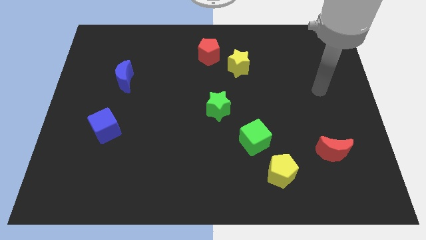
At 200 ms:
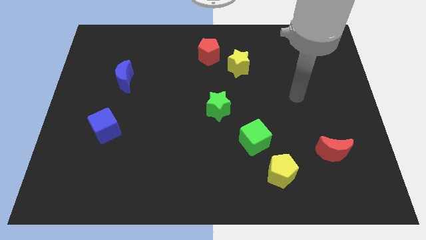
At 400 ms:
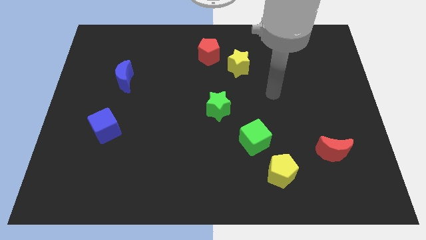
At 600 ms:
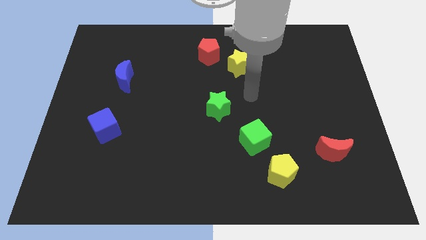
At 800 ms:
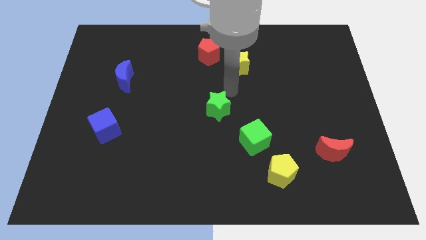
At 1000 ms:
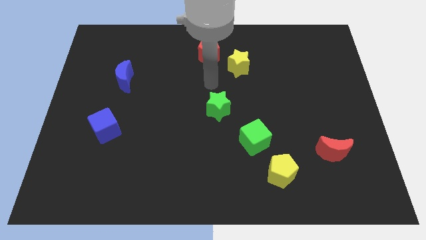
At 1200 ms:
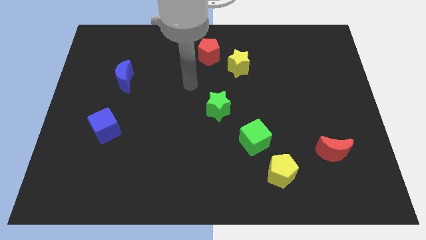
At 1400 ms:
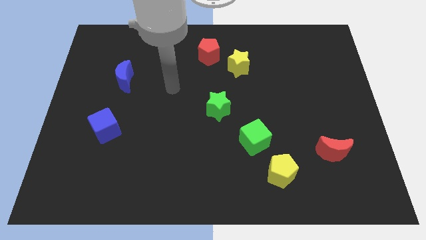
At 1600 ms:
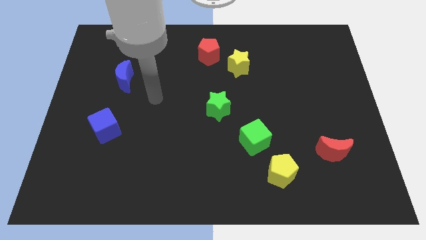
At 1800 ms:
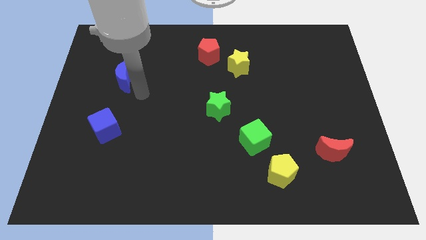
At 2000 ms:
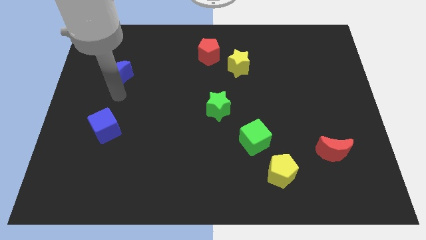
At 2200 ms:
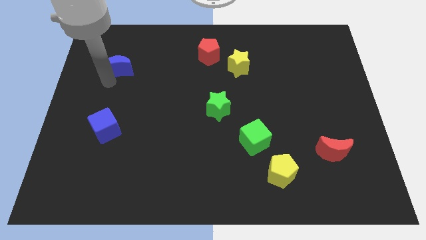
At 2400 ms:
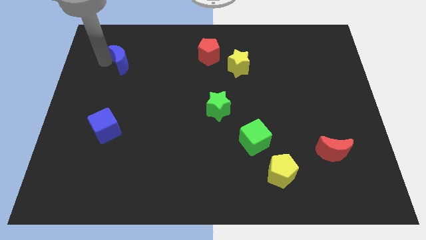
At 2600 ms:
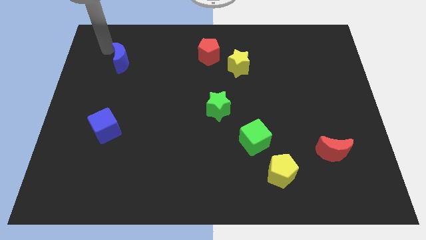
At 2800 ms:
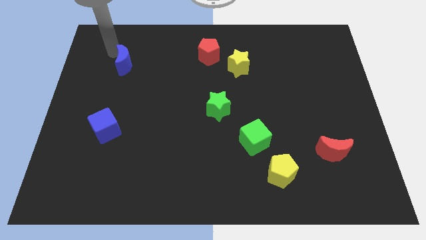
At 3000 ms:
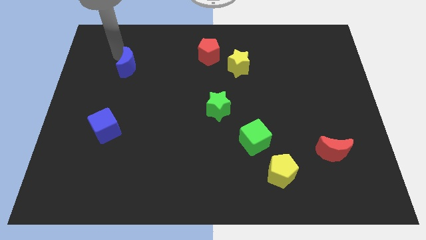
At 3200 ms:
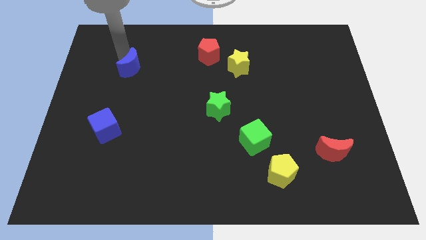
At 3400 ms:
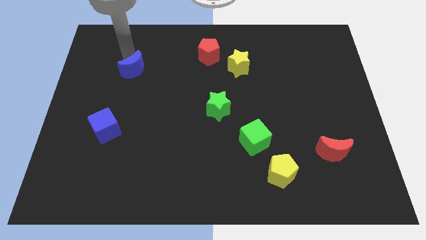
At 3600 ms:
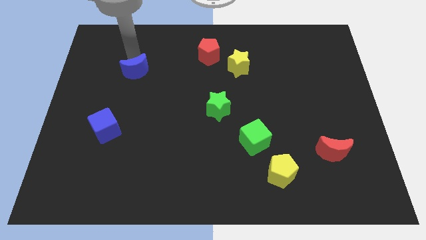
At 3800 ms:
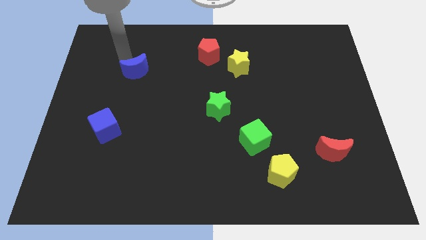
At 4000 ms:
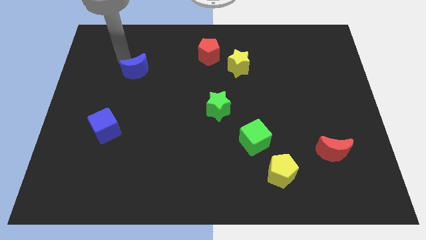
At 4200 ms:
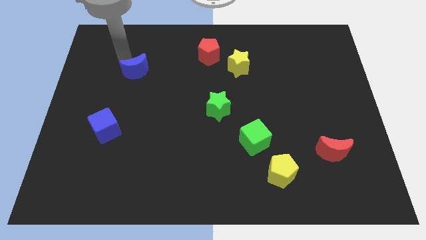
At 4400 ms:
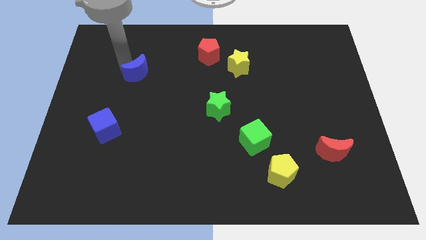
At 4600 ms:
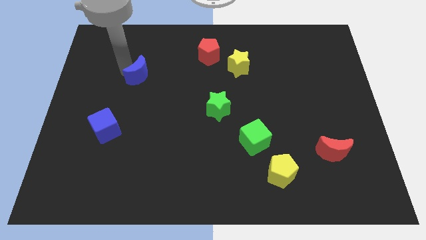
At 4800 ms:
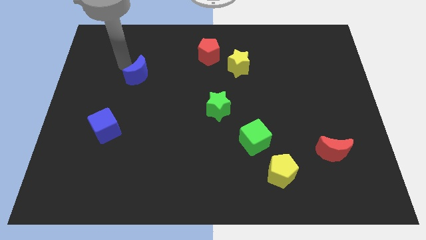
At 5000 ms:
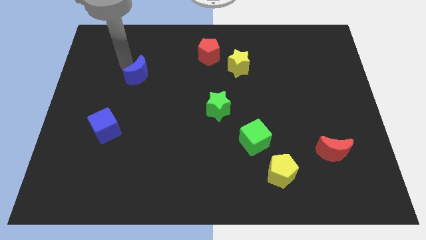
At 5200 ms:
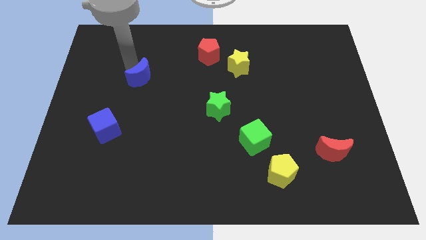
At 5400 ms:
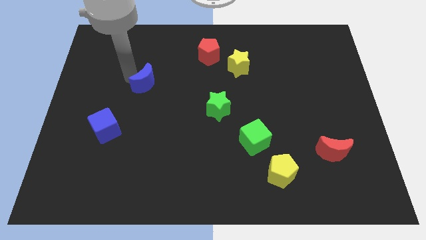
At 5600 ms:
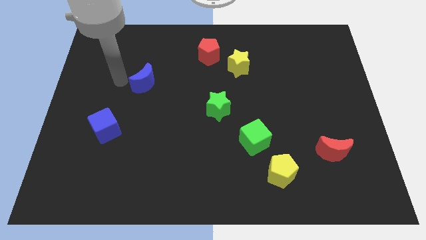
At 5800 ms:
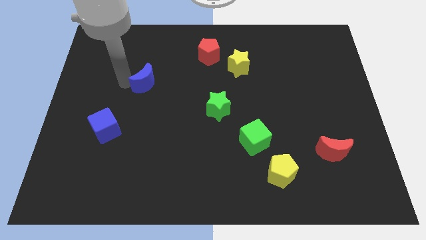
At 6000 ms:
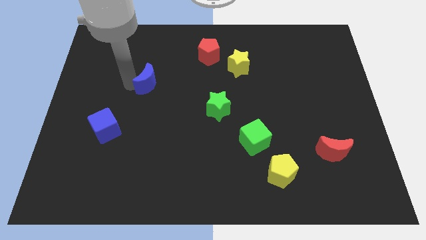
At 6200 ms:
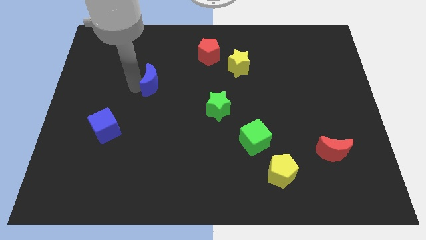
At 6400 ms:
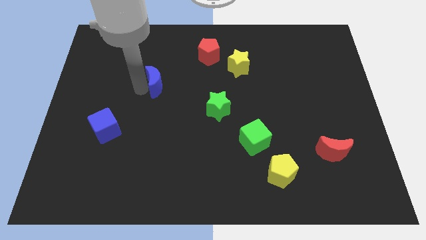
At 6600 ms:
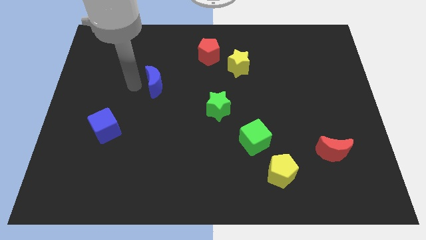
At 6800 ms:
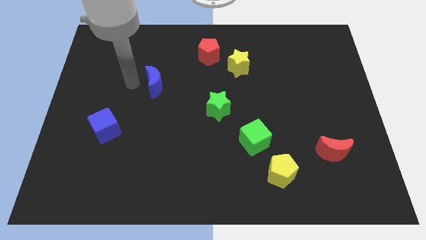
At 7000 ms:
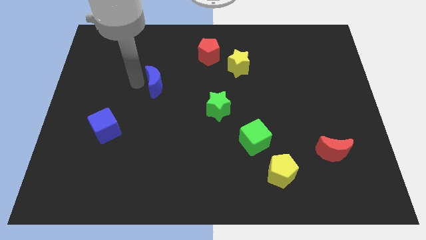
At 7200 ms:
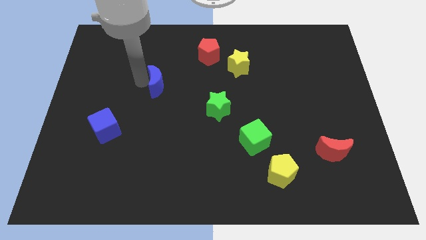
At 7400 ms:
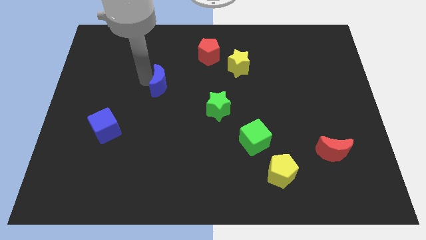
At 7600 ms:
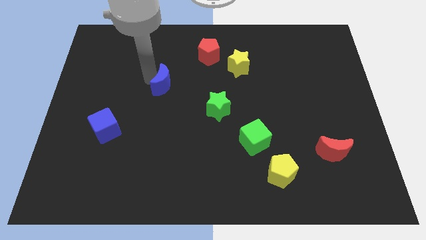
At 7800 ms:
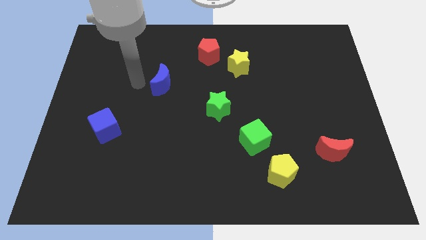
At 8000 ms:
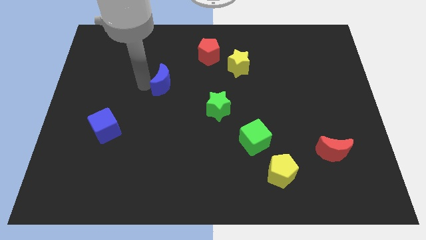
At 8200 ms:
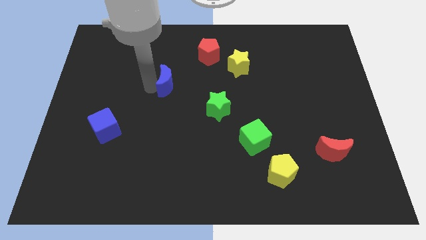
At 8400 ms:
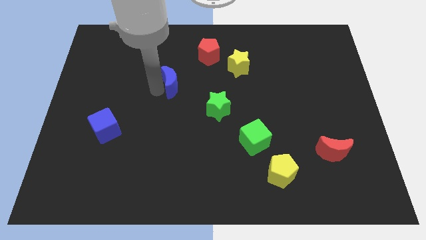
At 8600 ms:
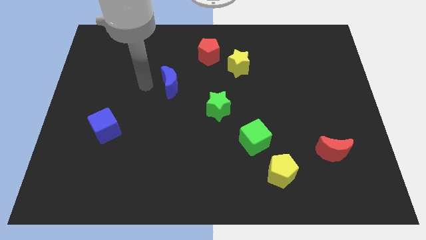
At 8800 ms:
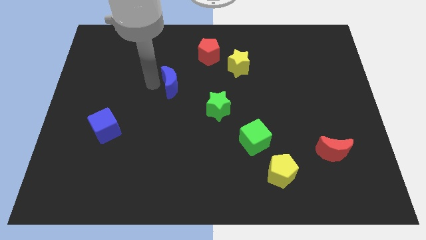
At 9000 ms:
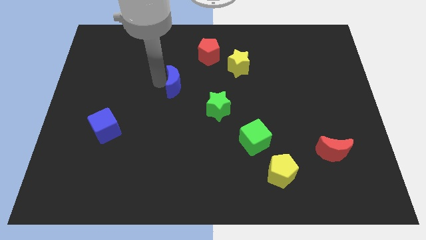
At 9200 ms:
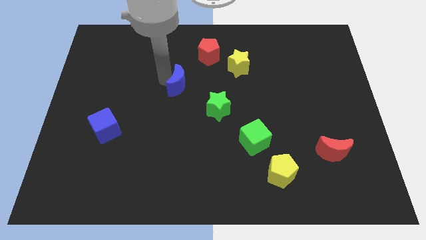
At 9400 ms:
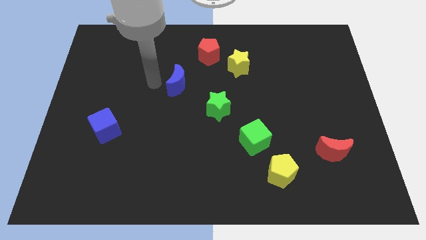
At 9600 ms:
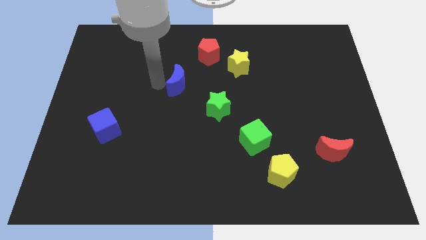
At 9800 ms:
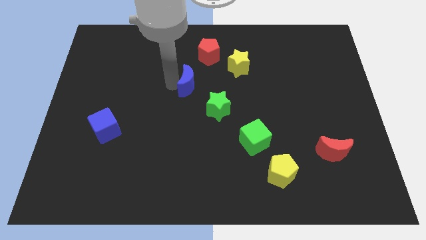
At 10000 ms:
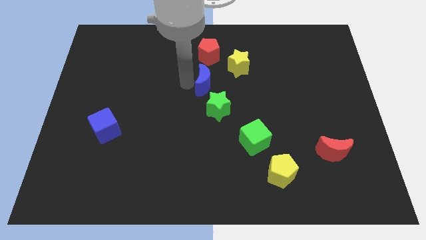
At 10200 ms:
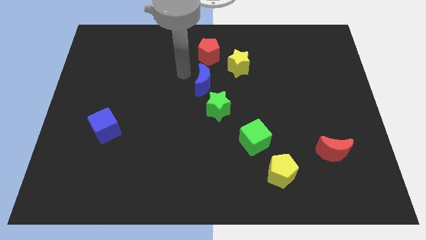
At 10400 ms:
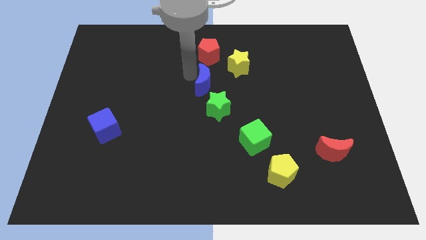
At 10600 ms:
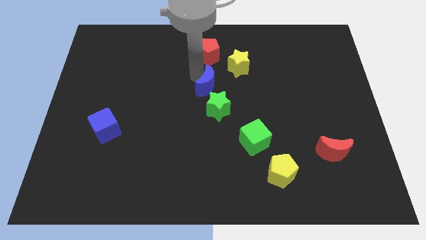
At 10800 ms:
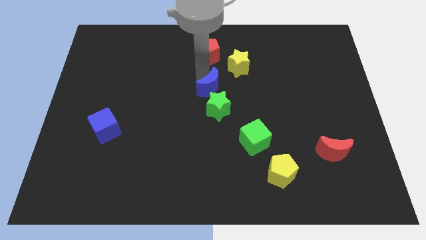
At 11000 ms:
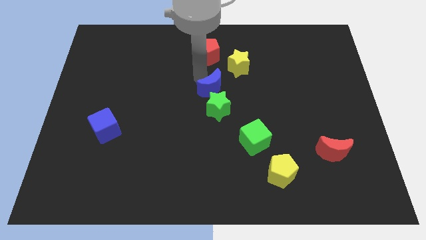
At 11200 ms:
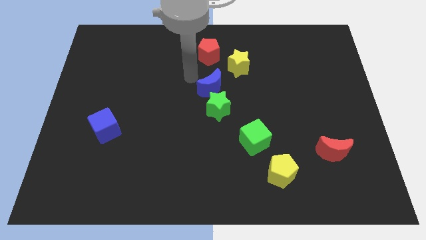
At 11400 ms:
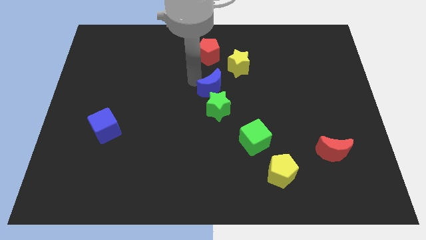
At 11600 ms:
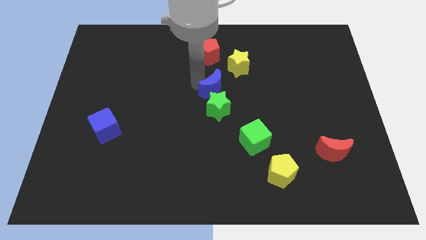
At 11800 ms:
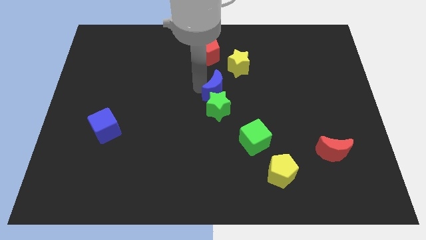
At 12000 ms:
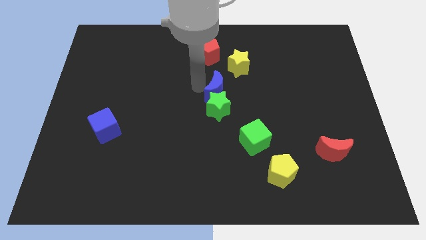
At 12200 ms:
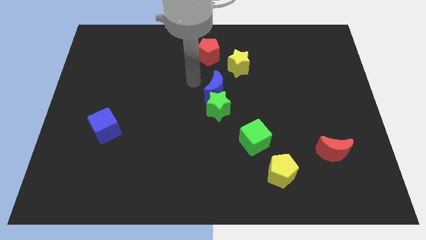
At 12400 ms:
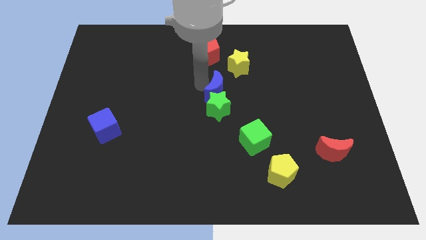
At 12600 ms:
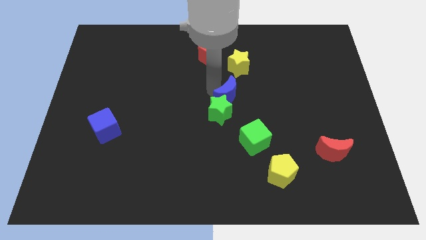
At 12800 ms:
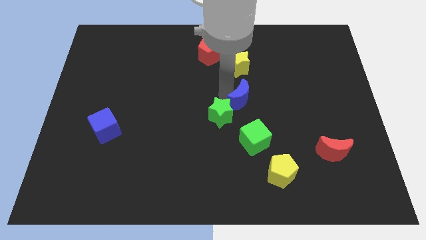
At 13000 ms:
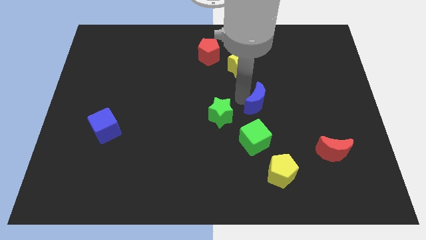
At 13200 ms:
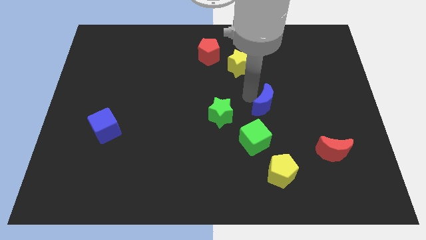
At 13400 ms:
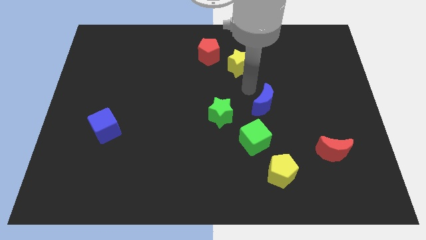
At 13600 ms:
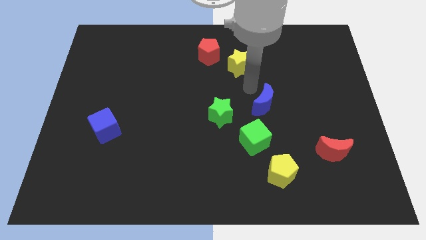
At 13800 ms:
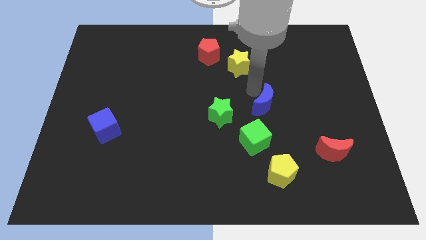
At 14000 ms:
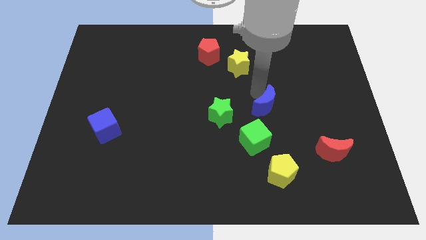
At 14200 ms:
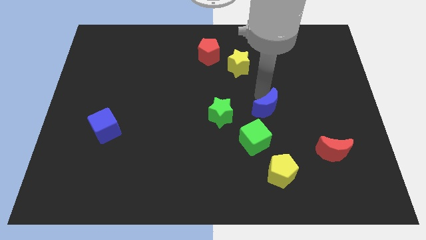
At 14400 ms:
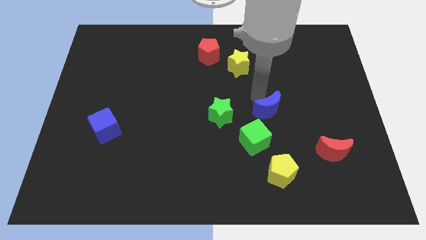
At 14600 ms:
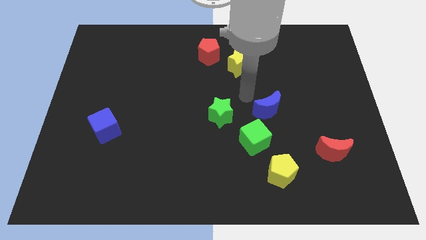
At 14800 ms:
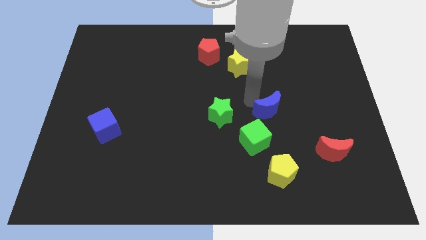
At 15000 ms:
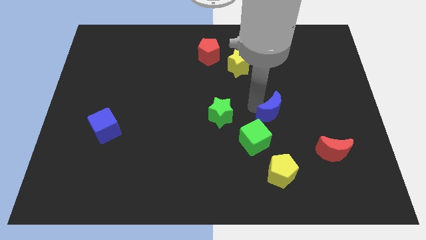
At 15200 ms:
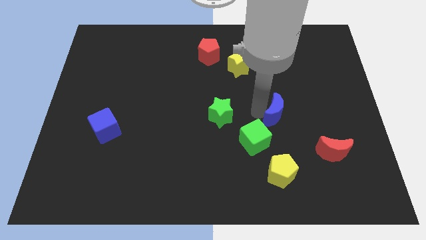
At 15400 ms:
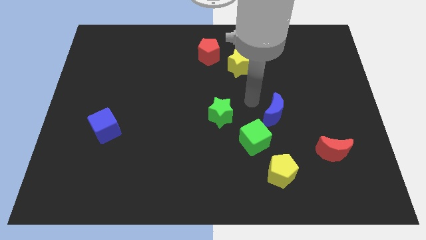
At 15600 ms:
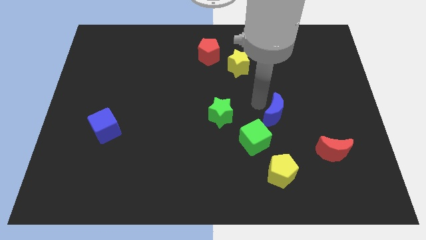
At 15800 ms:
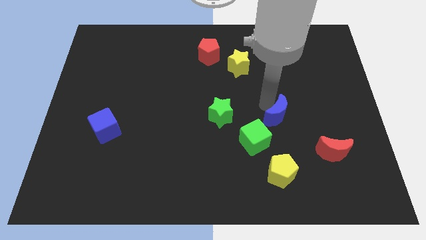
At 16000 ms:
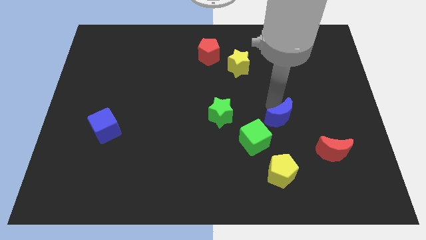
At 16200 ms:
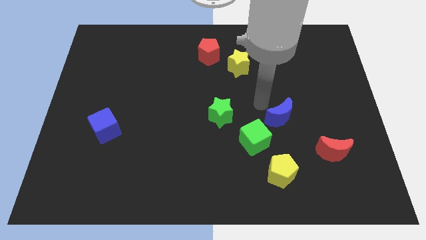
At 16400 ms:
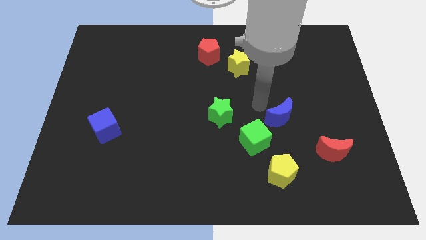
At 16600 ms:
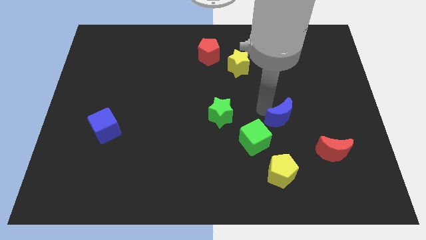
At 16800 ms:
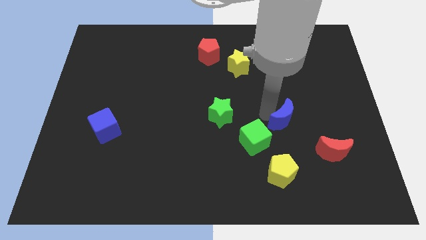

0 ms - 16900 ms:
push the blue moon to the top left side of the red moon

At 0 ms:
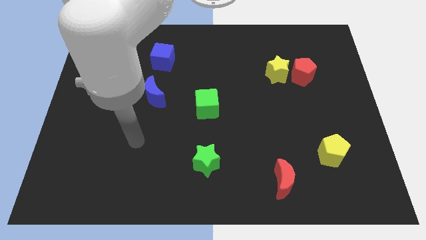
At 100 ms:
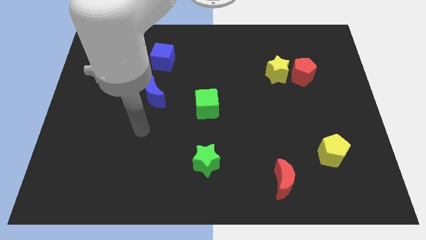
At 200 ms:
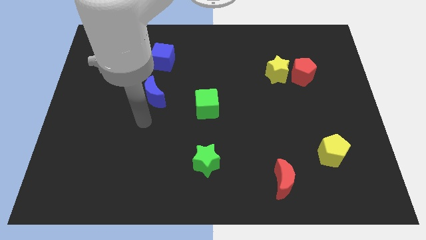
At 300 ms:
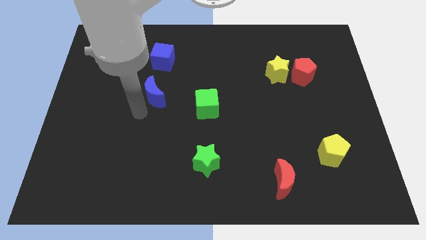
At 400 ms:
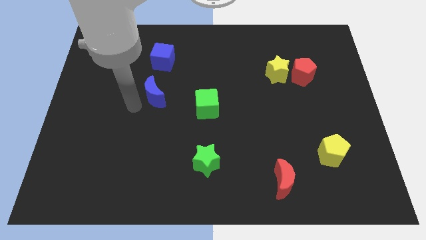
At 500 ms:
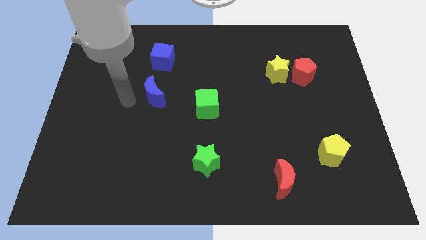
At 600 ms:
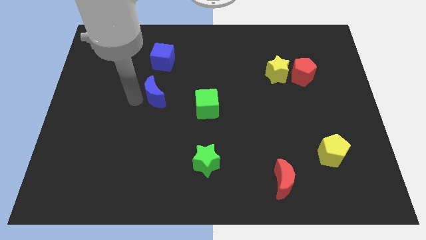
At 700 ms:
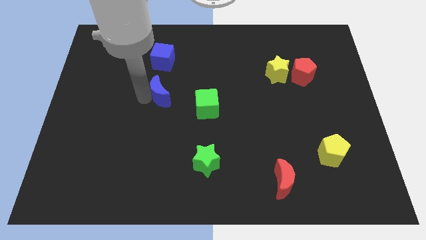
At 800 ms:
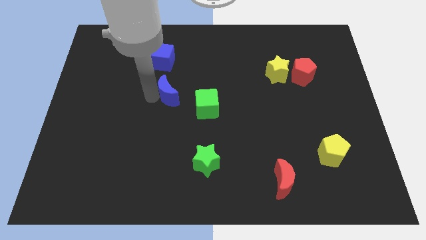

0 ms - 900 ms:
put the blue moon diagonally up and to the left of the green cube
